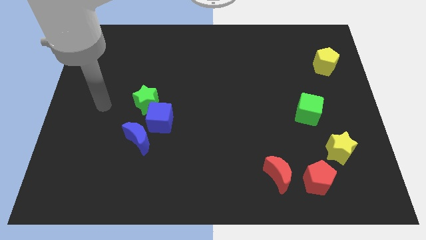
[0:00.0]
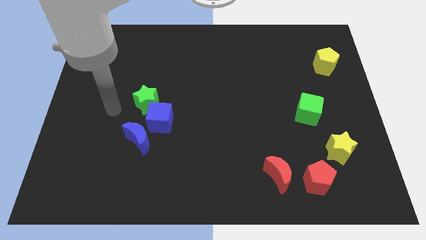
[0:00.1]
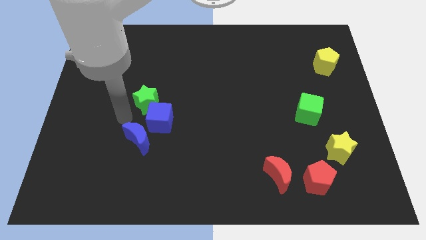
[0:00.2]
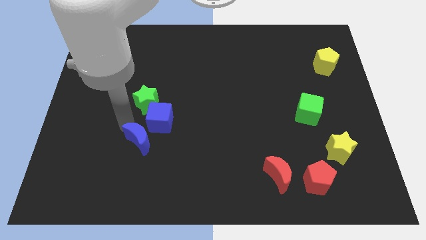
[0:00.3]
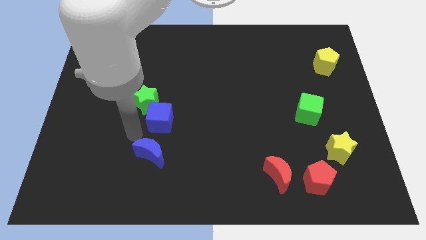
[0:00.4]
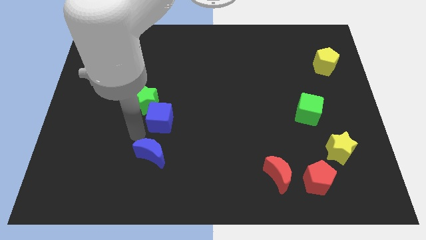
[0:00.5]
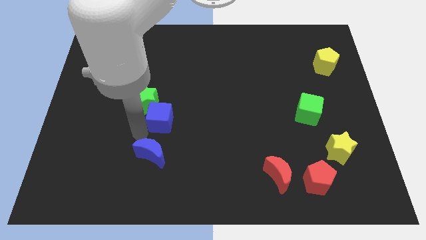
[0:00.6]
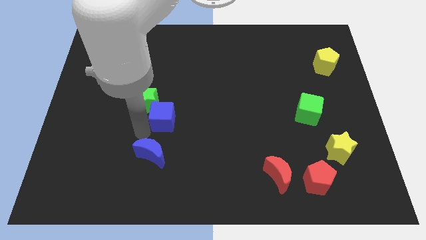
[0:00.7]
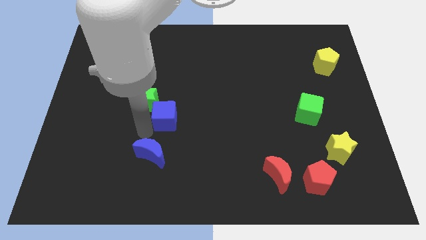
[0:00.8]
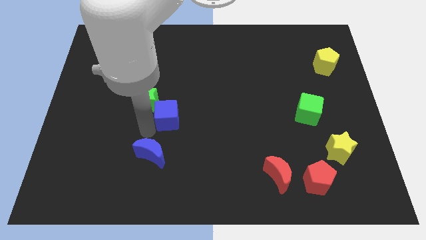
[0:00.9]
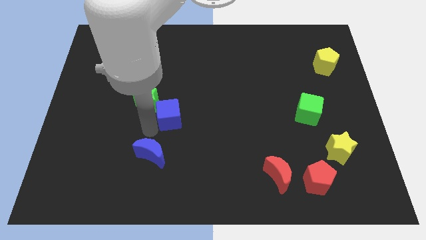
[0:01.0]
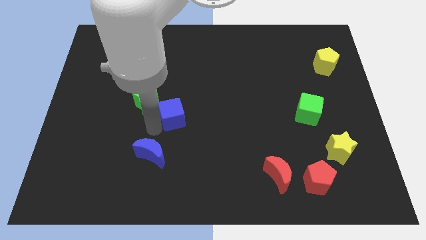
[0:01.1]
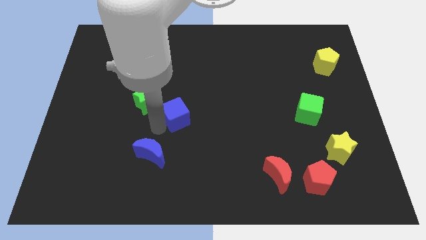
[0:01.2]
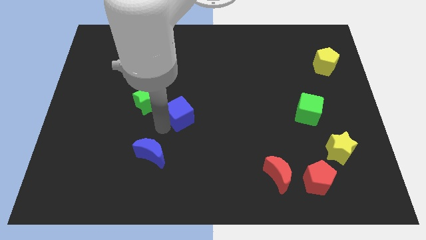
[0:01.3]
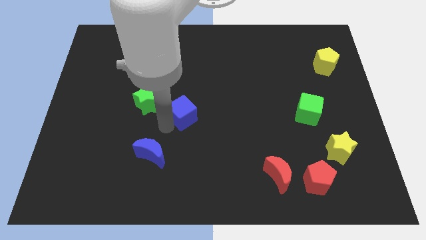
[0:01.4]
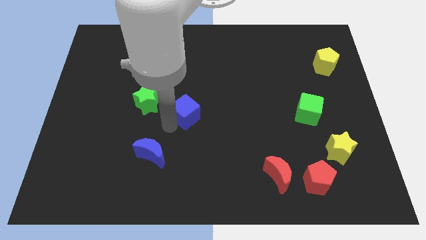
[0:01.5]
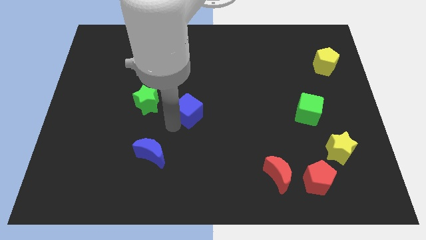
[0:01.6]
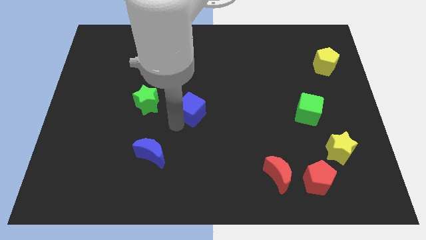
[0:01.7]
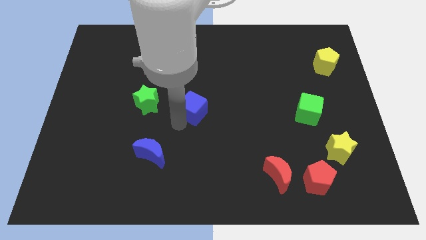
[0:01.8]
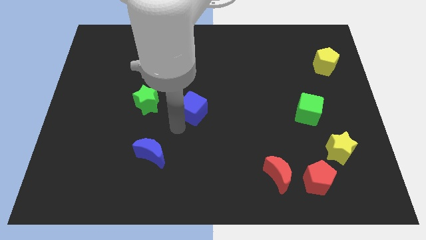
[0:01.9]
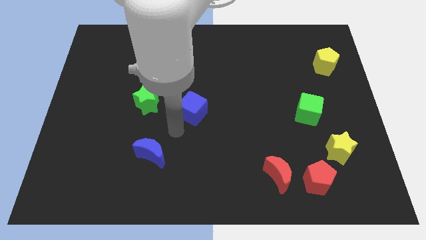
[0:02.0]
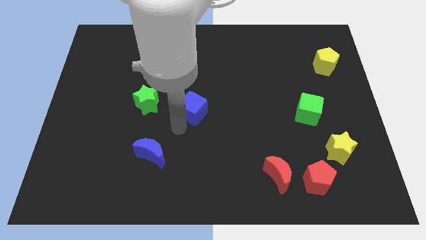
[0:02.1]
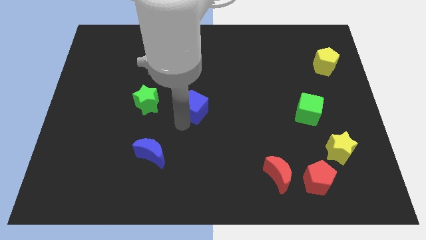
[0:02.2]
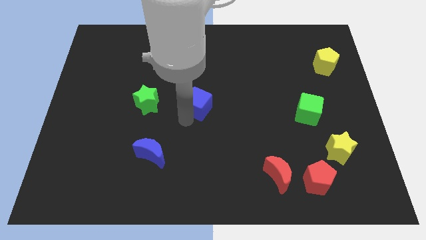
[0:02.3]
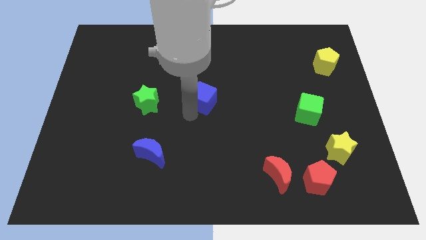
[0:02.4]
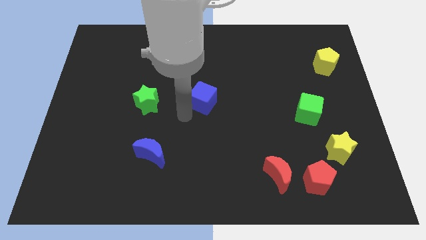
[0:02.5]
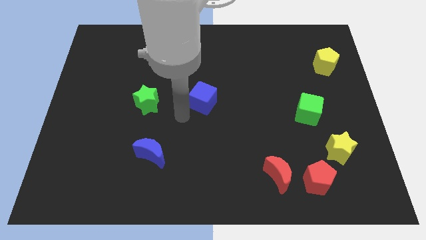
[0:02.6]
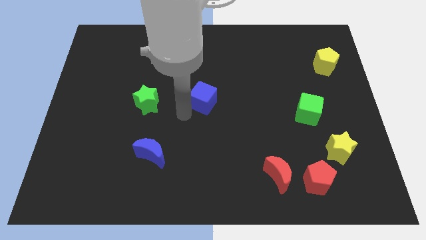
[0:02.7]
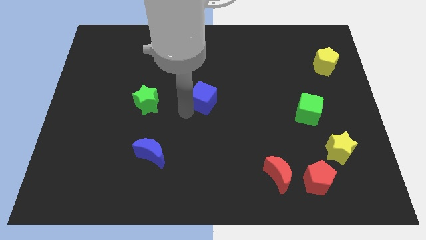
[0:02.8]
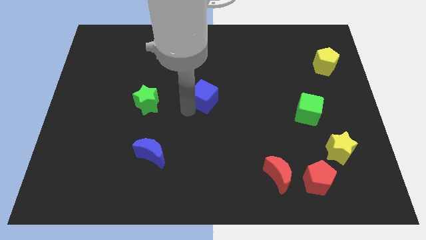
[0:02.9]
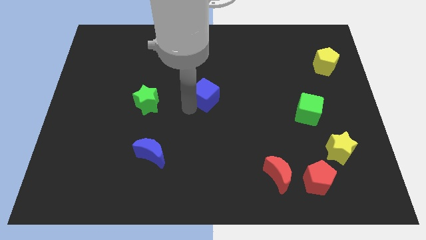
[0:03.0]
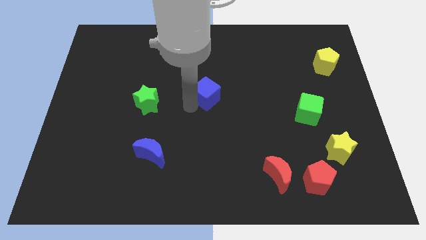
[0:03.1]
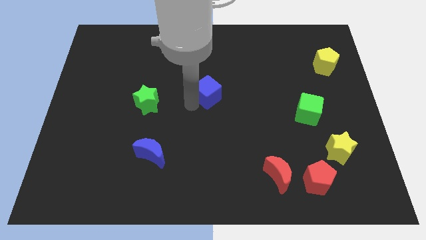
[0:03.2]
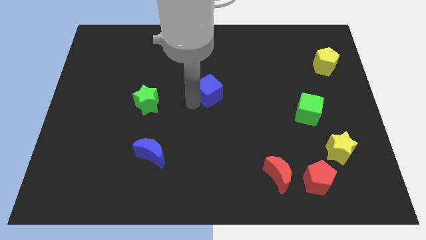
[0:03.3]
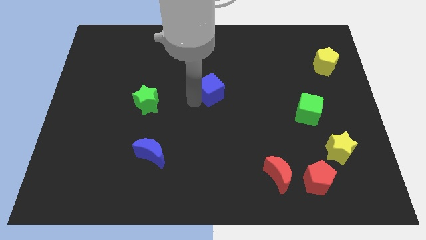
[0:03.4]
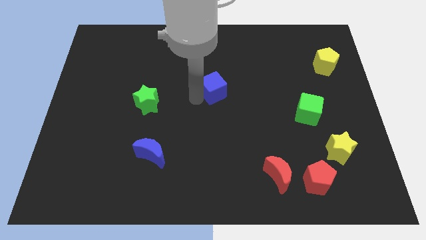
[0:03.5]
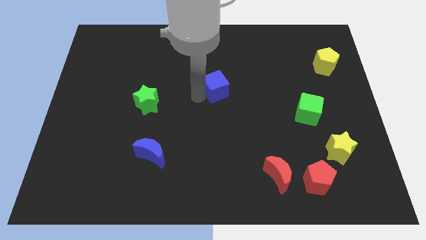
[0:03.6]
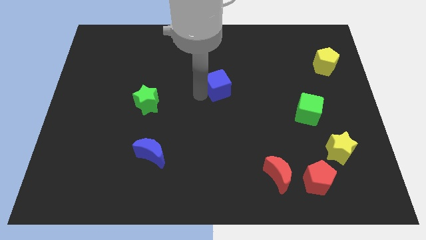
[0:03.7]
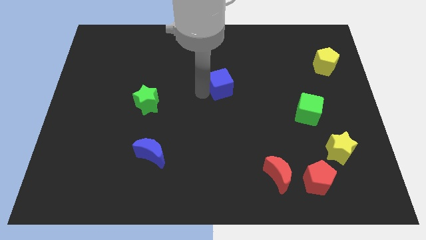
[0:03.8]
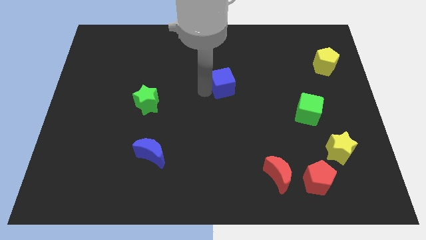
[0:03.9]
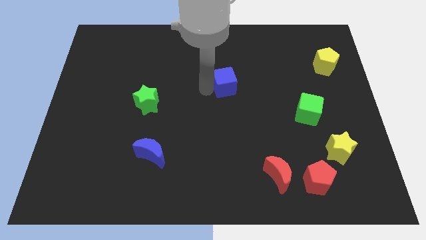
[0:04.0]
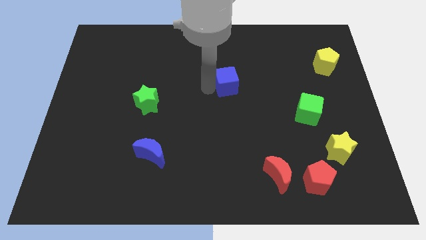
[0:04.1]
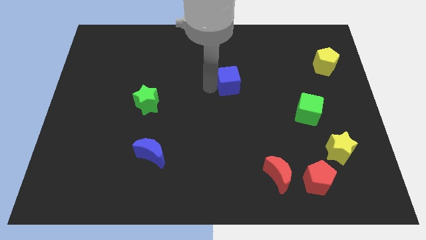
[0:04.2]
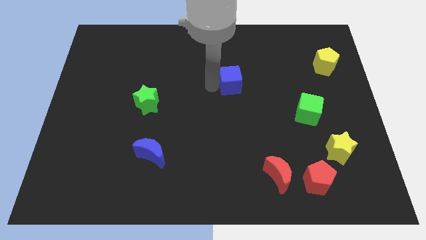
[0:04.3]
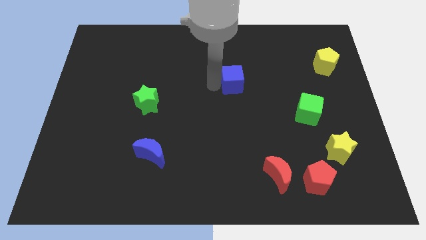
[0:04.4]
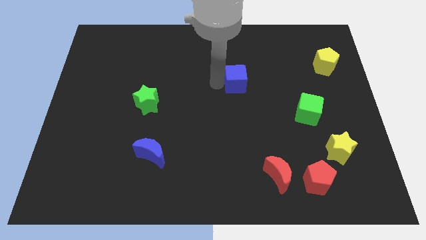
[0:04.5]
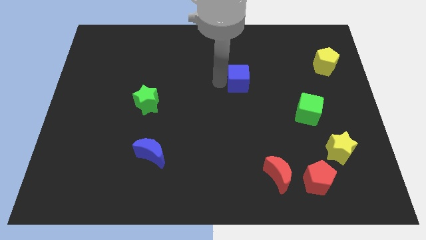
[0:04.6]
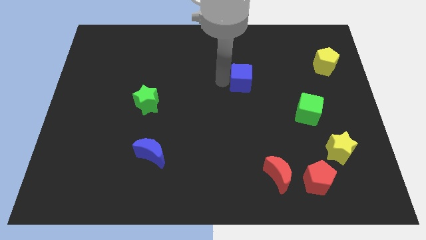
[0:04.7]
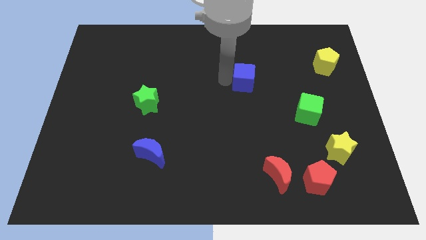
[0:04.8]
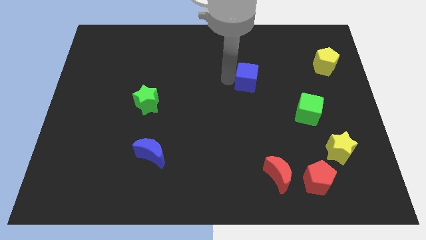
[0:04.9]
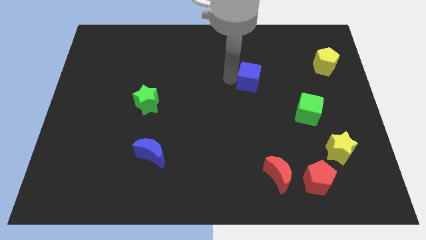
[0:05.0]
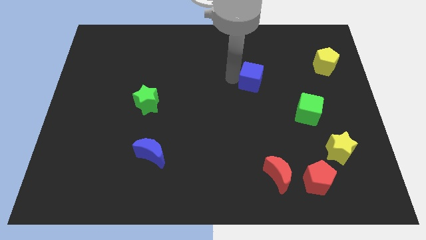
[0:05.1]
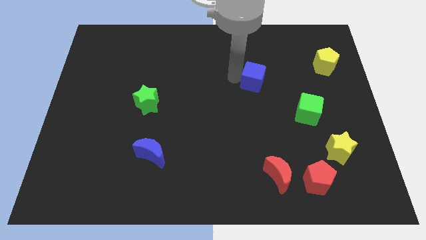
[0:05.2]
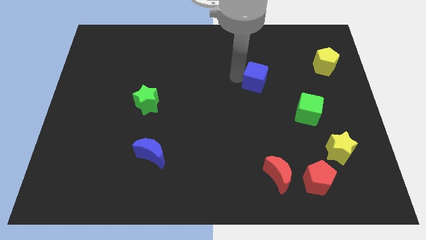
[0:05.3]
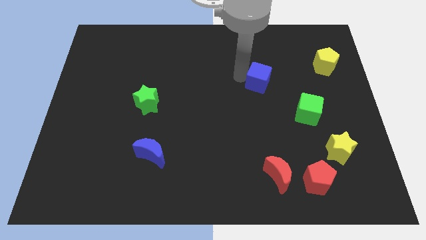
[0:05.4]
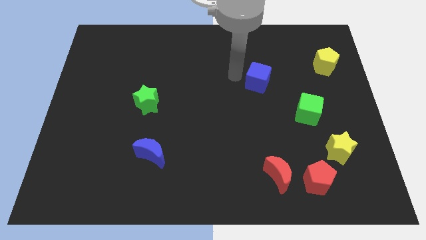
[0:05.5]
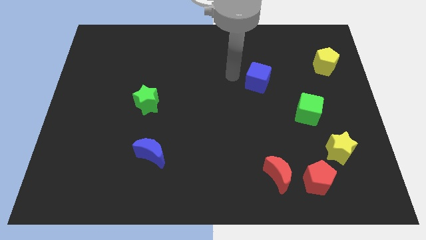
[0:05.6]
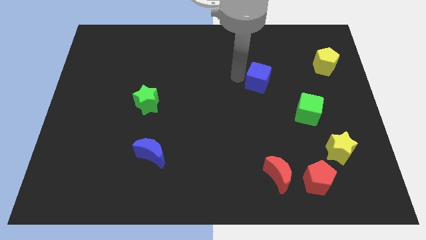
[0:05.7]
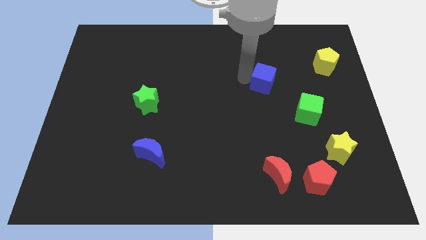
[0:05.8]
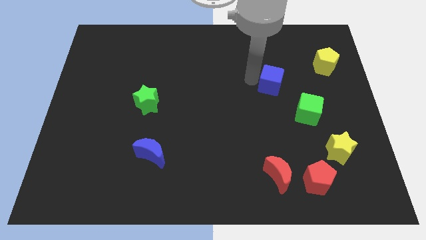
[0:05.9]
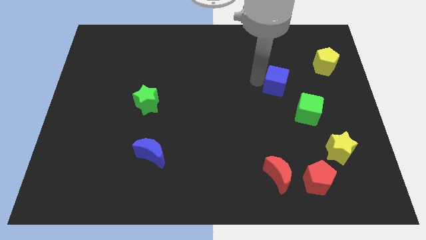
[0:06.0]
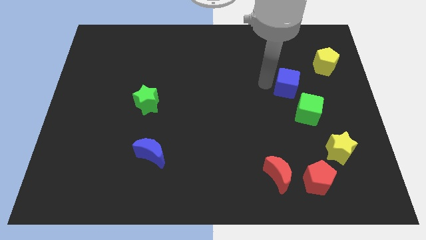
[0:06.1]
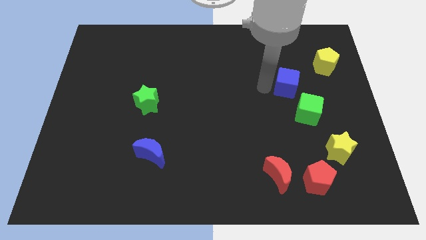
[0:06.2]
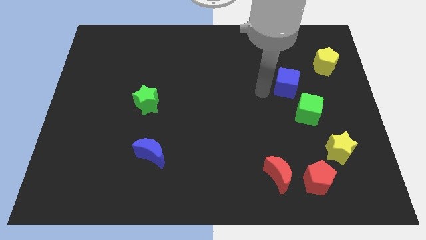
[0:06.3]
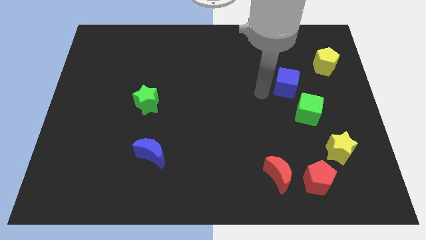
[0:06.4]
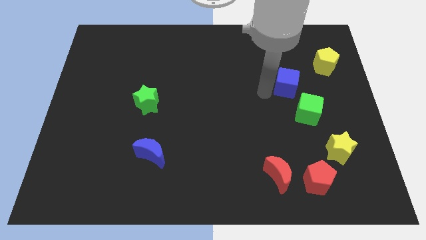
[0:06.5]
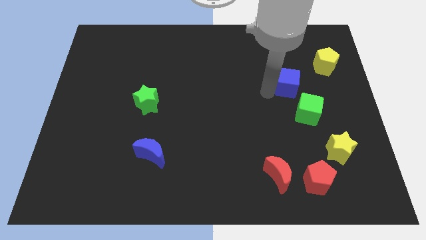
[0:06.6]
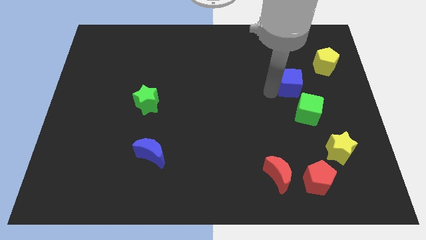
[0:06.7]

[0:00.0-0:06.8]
put the blue cube to the bottom left of the yellow pentagon

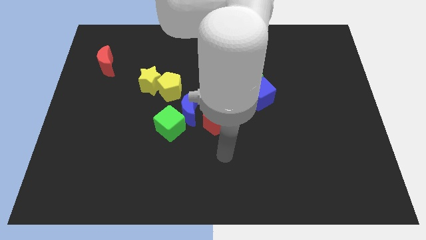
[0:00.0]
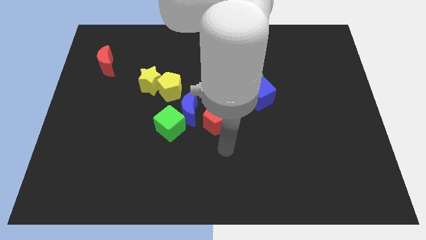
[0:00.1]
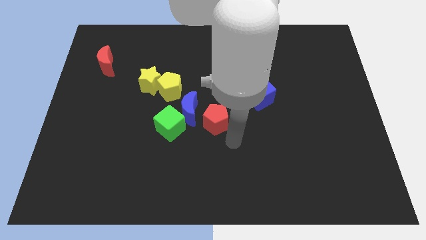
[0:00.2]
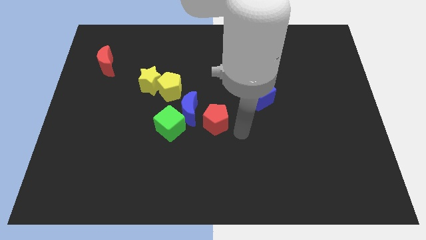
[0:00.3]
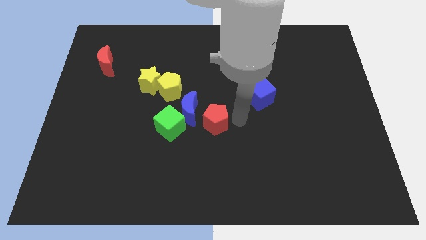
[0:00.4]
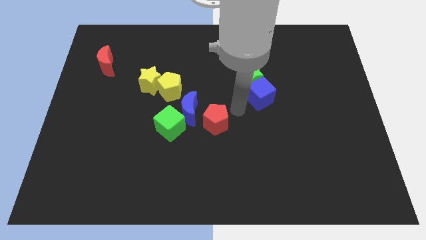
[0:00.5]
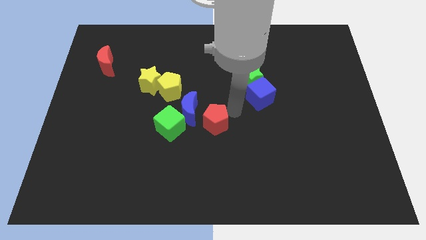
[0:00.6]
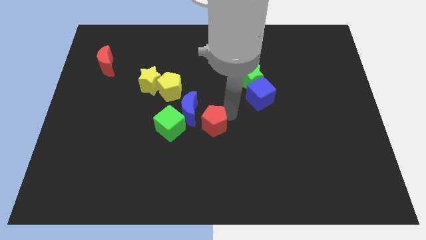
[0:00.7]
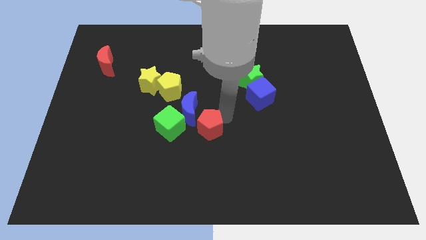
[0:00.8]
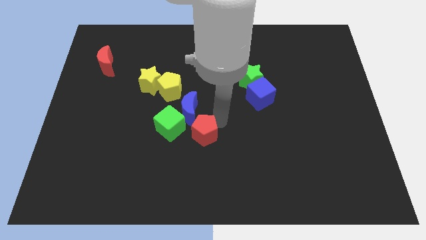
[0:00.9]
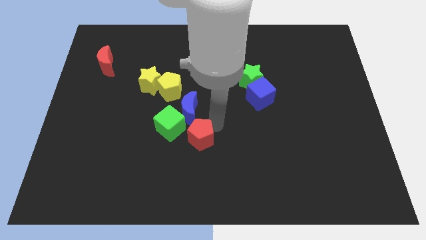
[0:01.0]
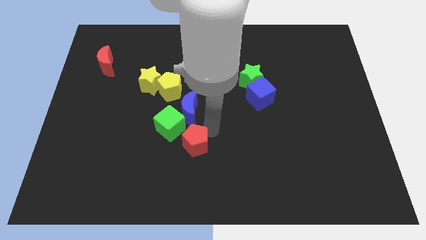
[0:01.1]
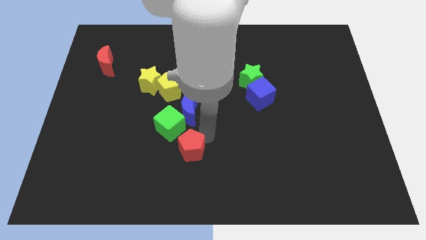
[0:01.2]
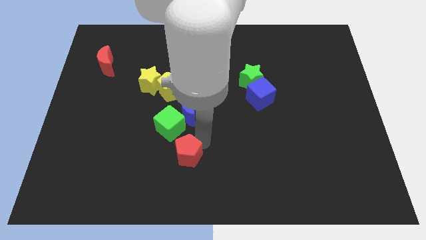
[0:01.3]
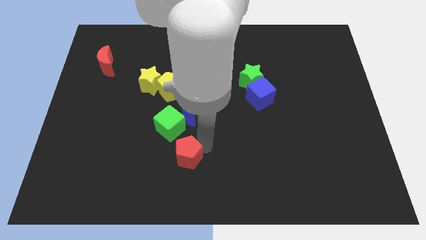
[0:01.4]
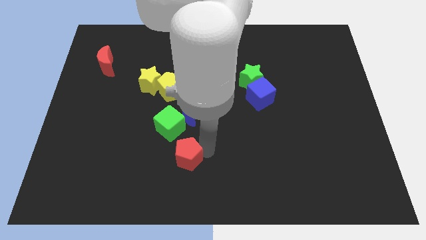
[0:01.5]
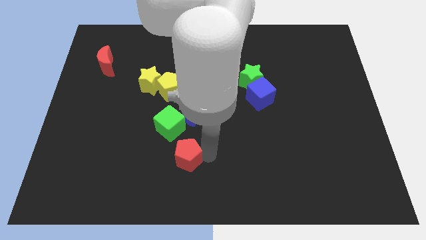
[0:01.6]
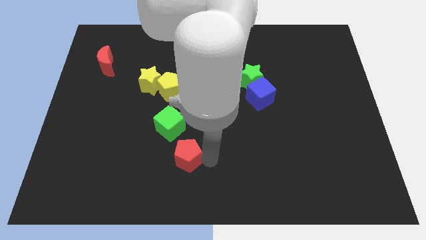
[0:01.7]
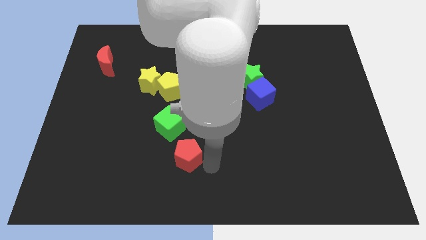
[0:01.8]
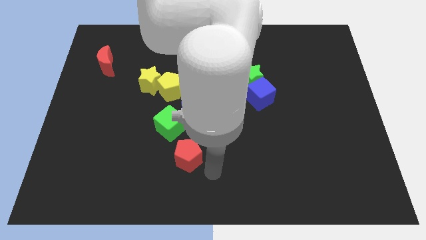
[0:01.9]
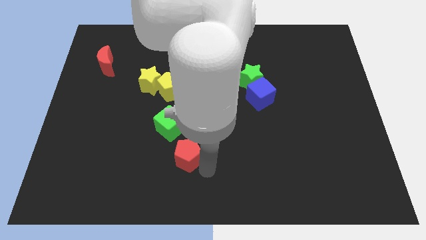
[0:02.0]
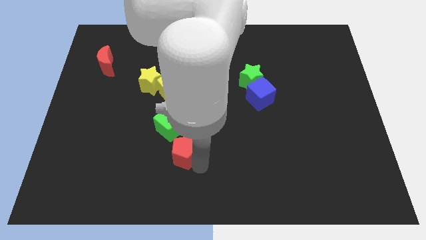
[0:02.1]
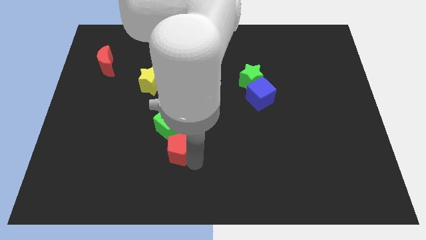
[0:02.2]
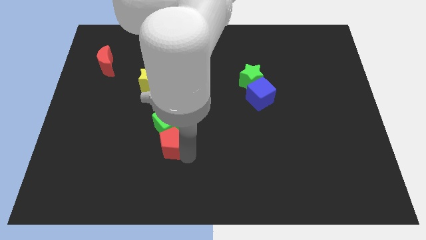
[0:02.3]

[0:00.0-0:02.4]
put the red pentagon to the bottom left side of the green cube
